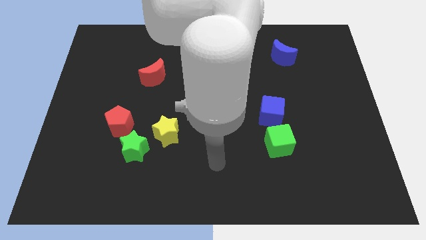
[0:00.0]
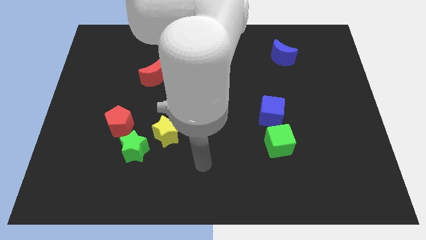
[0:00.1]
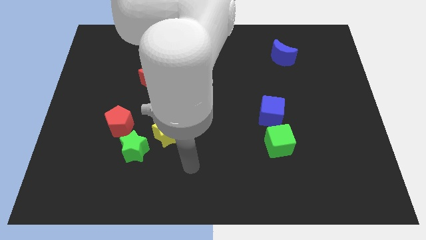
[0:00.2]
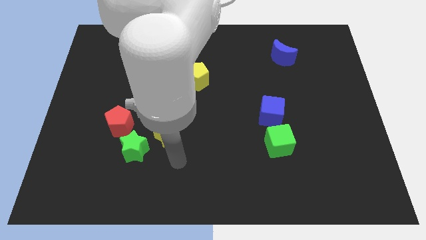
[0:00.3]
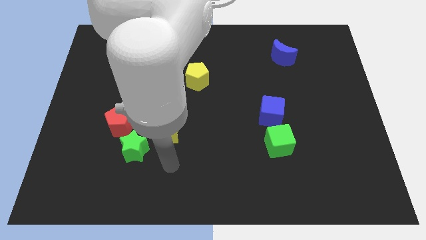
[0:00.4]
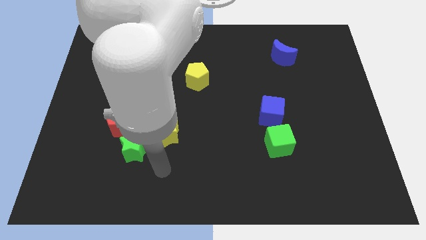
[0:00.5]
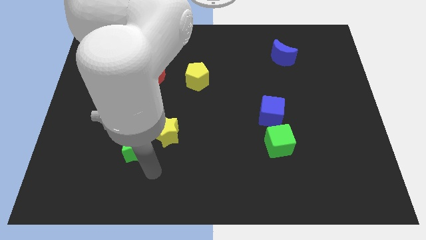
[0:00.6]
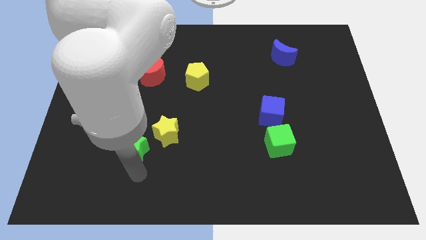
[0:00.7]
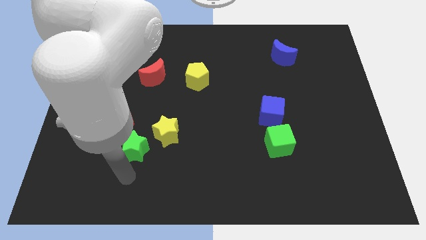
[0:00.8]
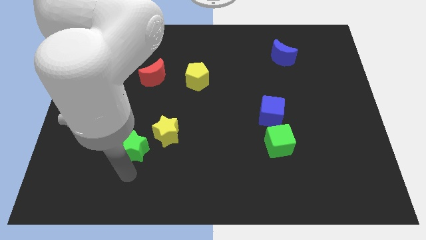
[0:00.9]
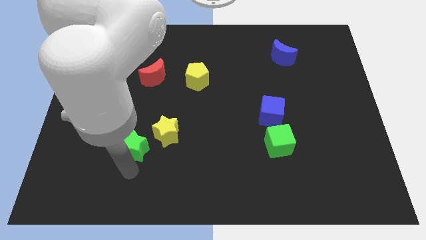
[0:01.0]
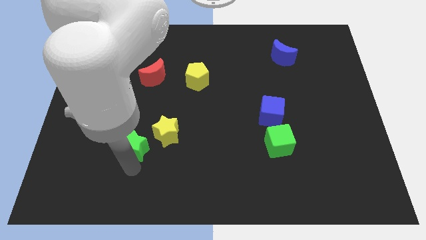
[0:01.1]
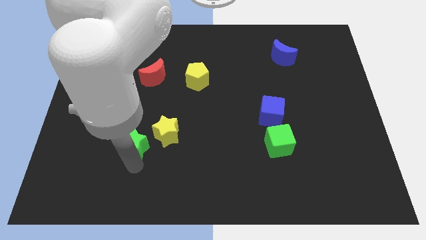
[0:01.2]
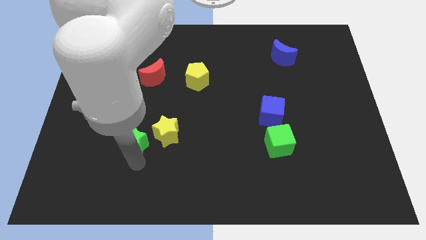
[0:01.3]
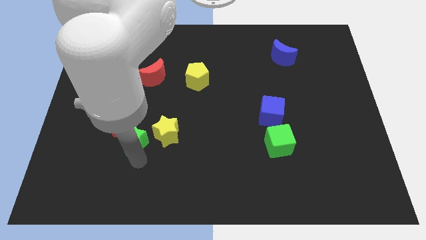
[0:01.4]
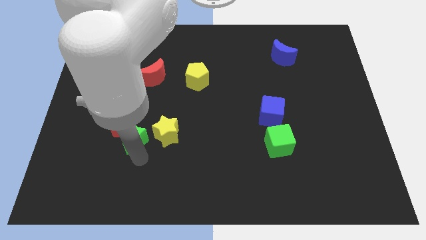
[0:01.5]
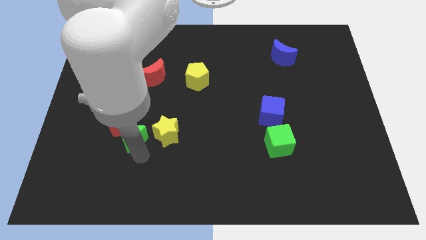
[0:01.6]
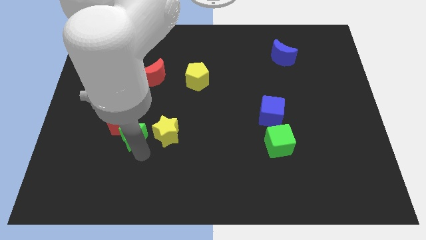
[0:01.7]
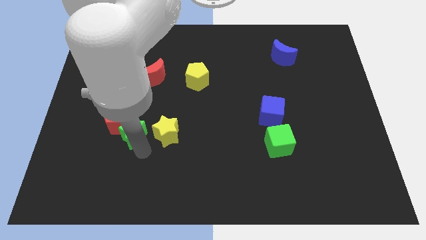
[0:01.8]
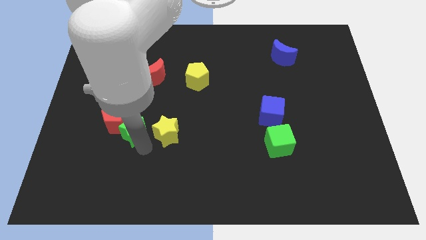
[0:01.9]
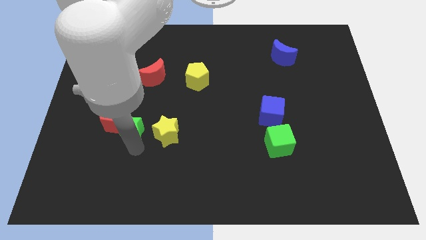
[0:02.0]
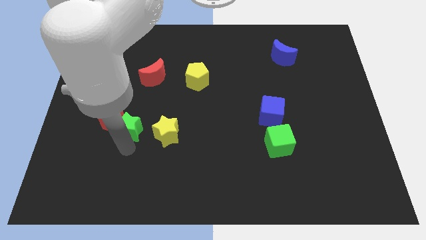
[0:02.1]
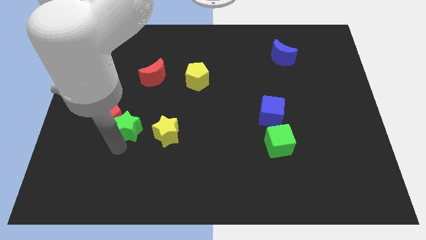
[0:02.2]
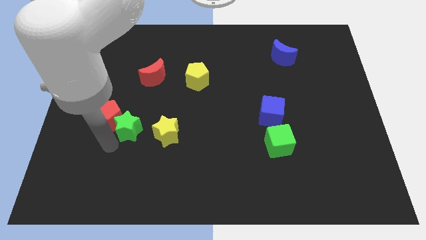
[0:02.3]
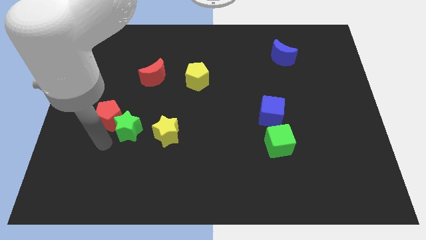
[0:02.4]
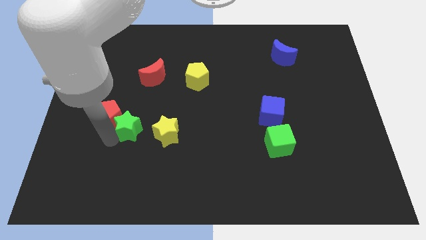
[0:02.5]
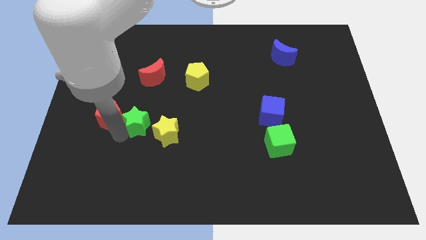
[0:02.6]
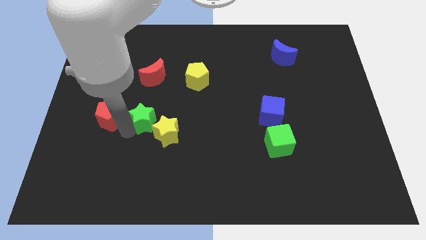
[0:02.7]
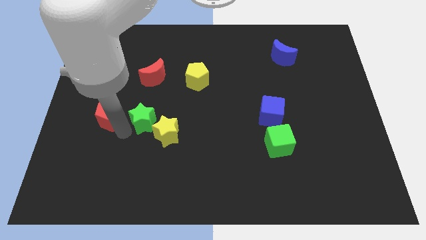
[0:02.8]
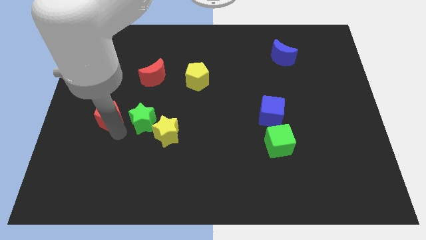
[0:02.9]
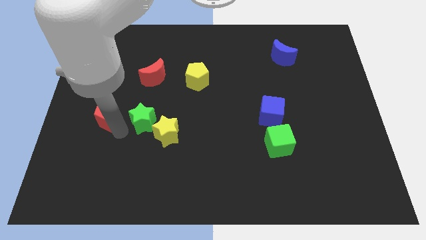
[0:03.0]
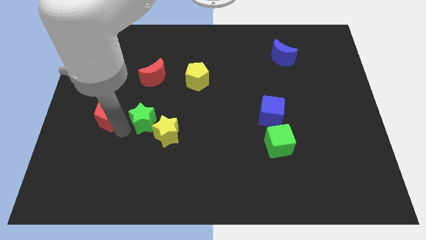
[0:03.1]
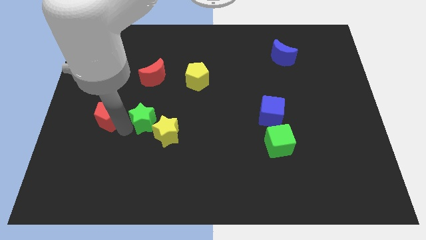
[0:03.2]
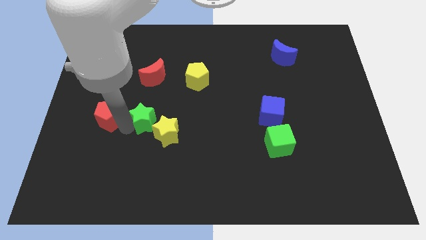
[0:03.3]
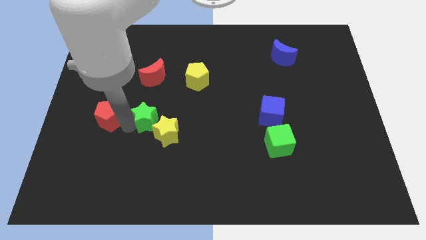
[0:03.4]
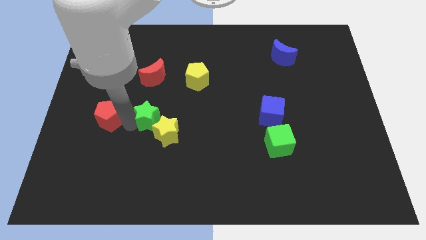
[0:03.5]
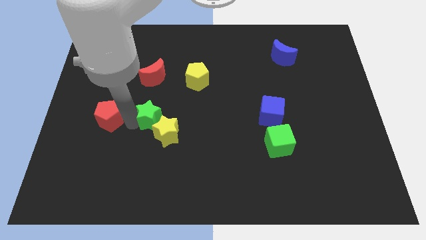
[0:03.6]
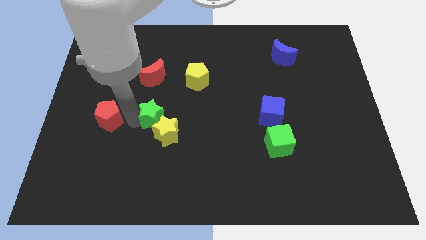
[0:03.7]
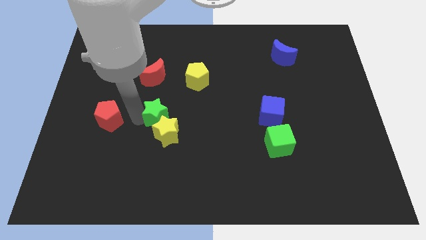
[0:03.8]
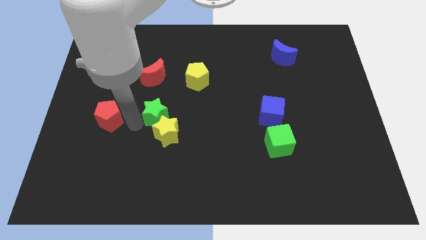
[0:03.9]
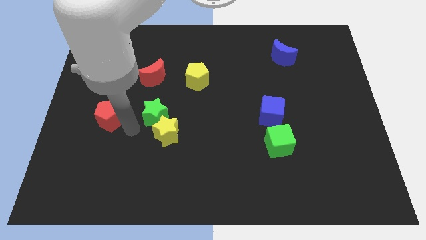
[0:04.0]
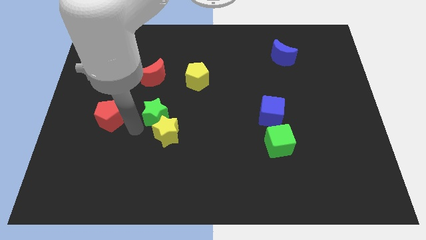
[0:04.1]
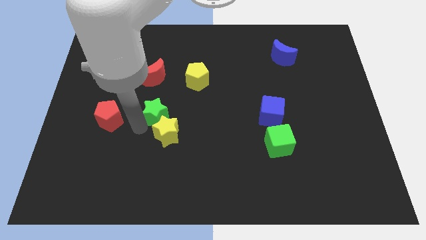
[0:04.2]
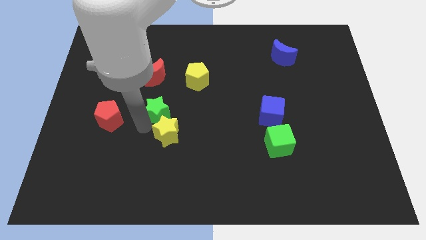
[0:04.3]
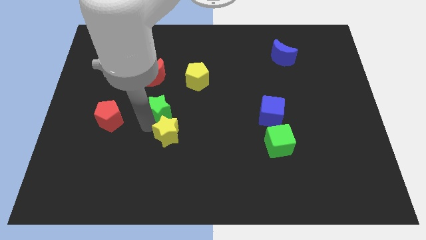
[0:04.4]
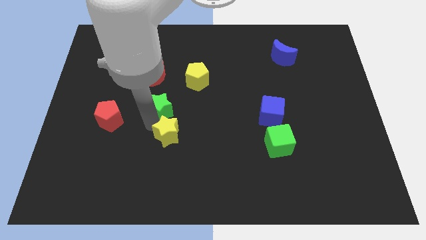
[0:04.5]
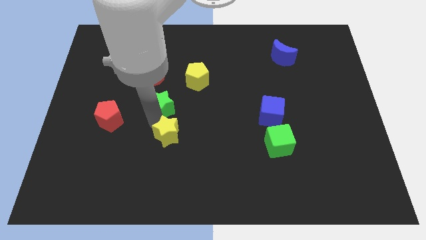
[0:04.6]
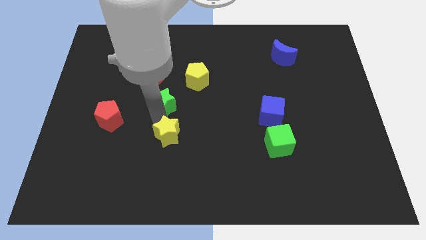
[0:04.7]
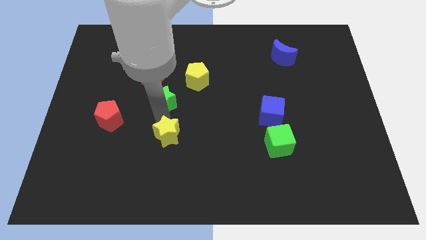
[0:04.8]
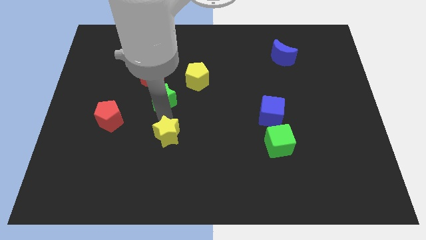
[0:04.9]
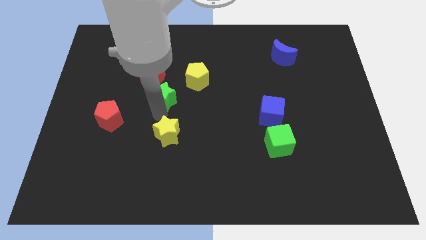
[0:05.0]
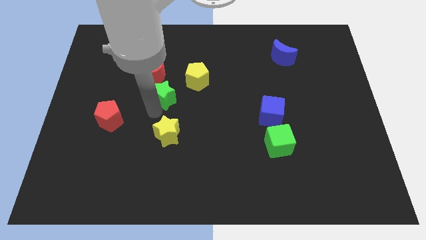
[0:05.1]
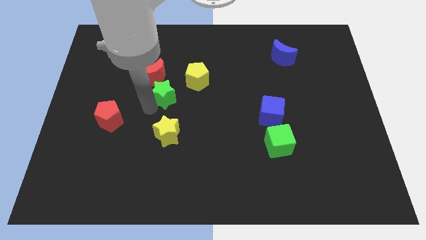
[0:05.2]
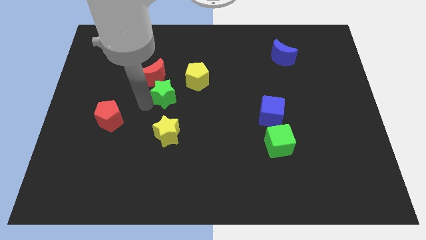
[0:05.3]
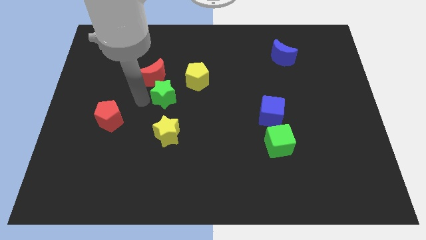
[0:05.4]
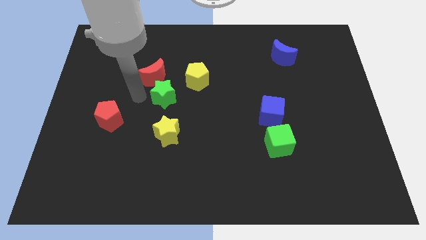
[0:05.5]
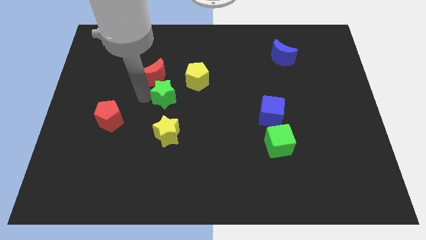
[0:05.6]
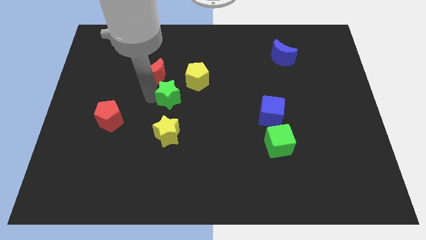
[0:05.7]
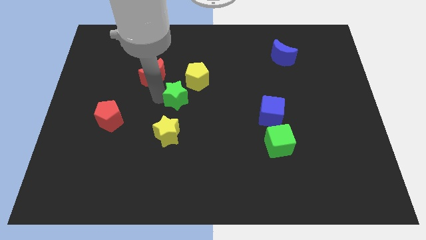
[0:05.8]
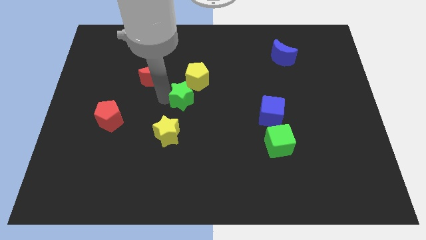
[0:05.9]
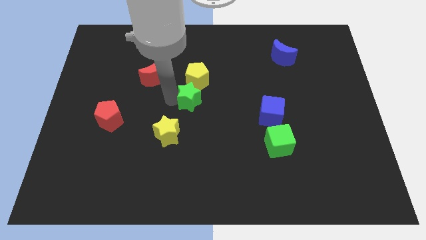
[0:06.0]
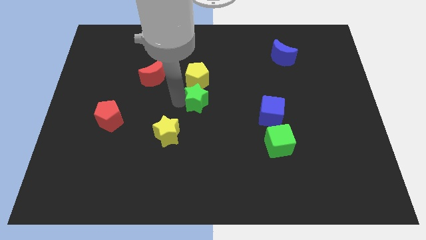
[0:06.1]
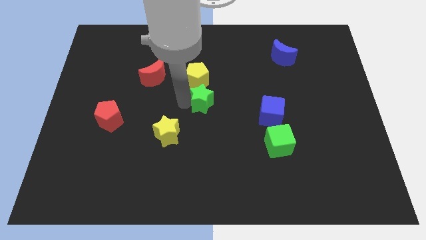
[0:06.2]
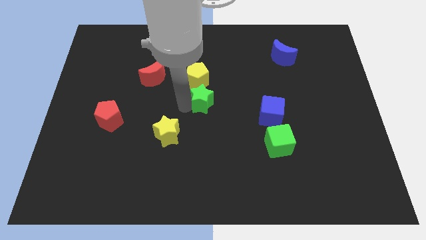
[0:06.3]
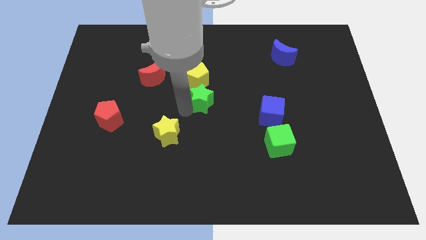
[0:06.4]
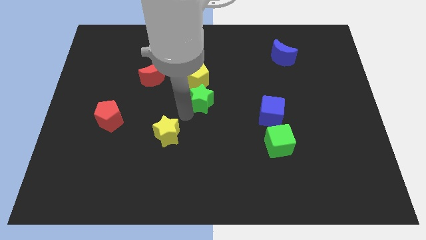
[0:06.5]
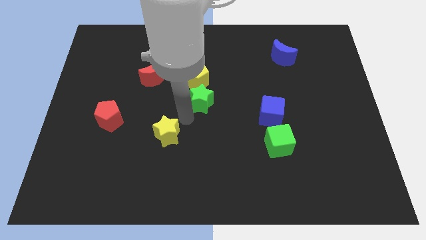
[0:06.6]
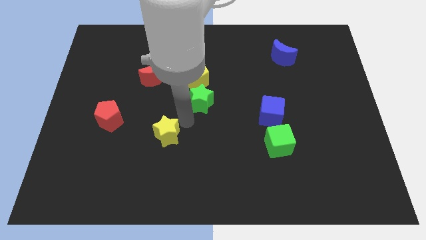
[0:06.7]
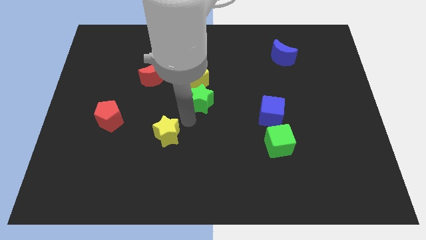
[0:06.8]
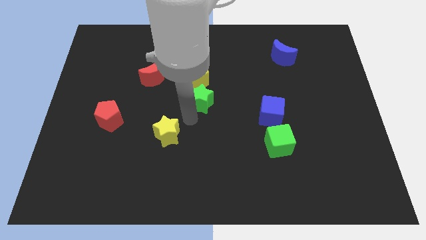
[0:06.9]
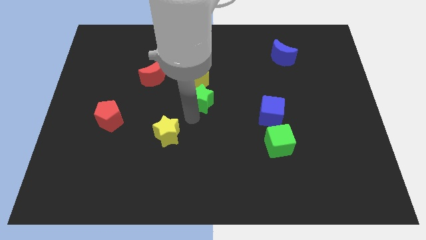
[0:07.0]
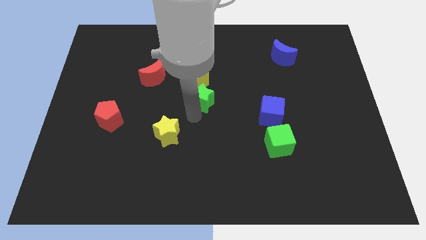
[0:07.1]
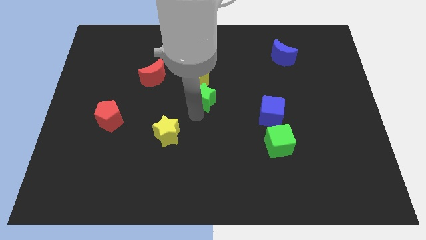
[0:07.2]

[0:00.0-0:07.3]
slide the green star up and right

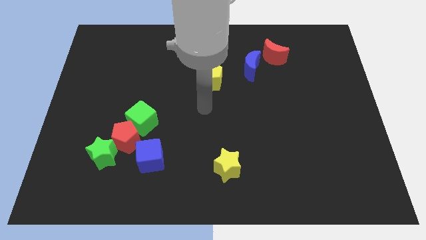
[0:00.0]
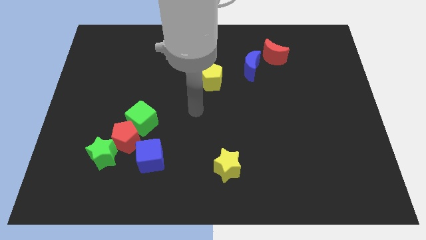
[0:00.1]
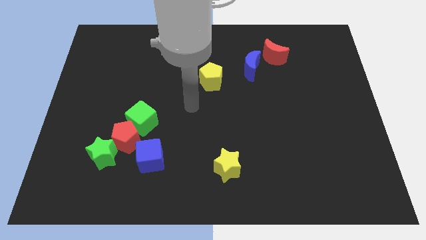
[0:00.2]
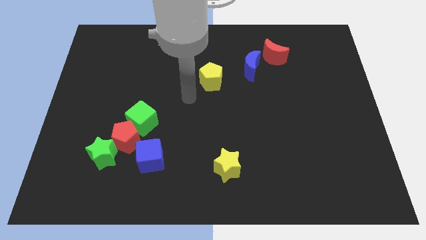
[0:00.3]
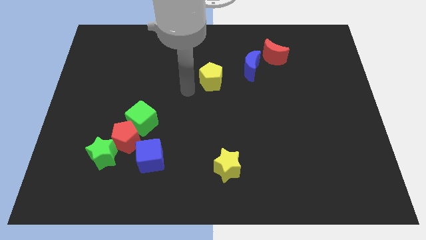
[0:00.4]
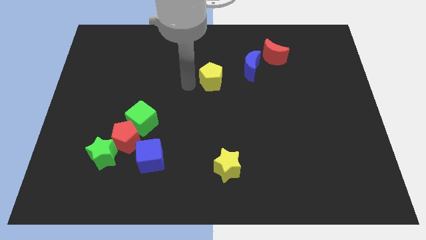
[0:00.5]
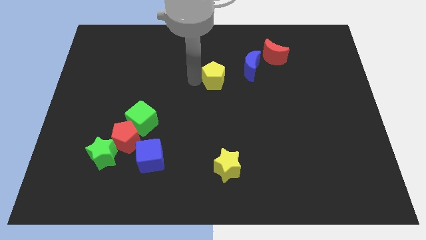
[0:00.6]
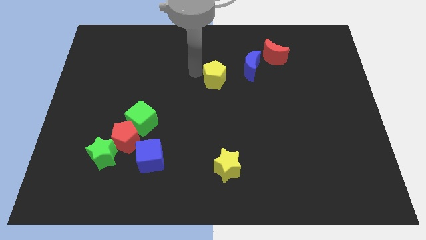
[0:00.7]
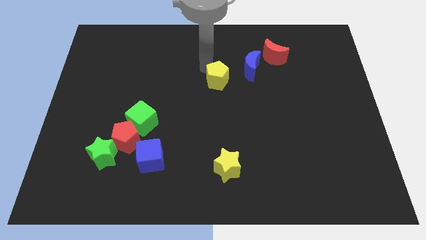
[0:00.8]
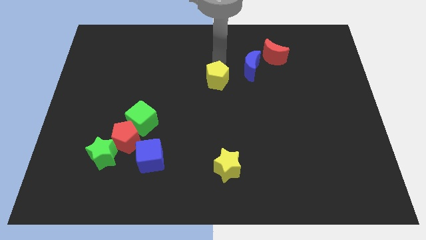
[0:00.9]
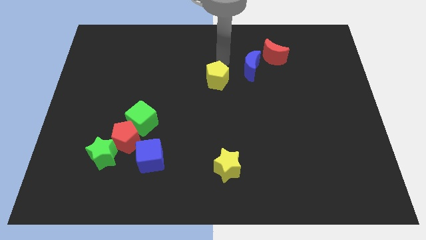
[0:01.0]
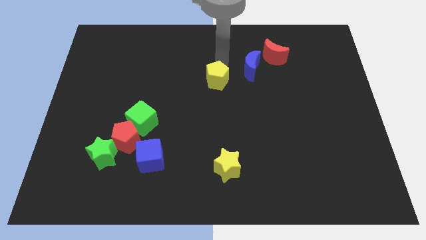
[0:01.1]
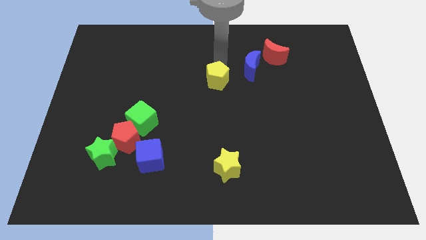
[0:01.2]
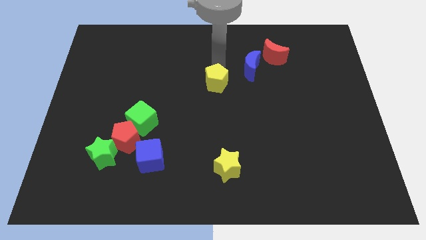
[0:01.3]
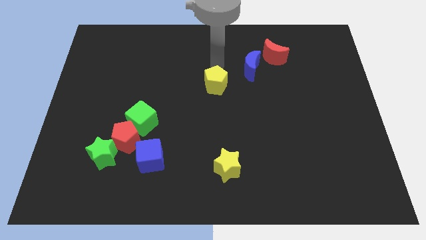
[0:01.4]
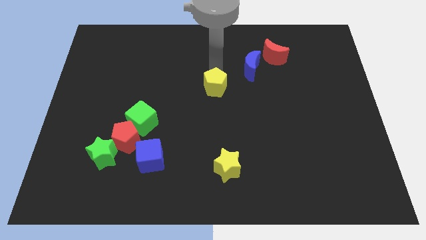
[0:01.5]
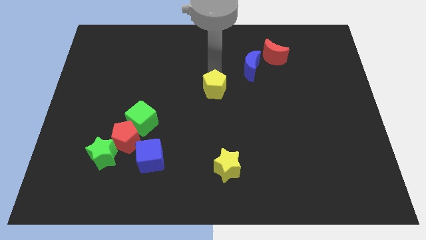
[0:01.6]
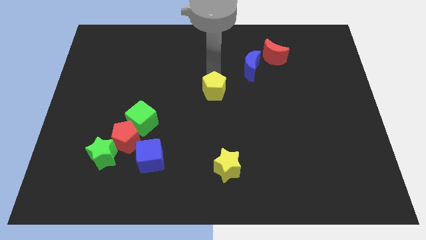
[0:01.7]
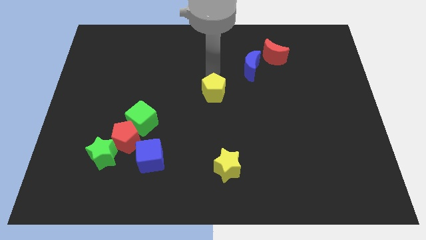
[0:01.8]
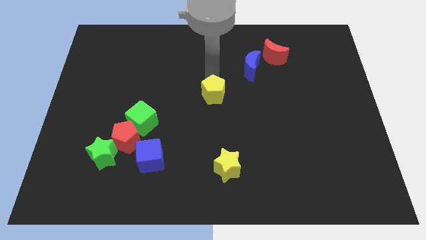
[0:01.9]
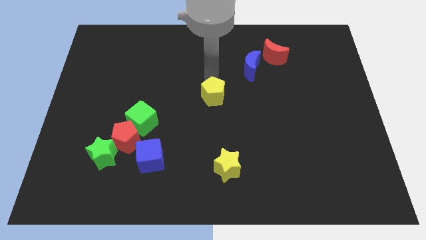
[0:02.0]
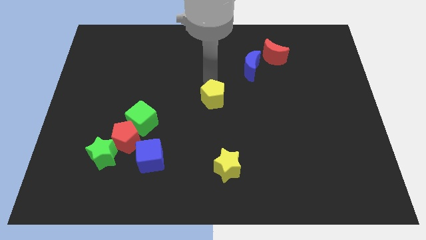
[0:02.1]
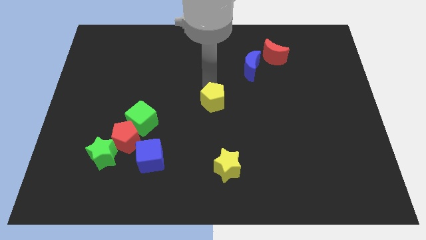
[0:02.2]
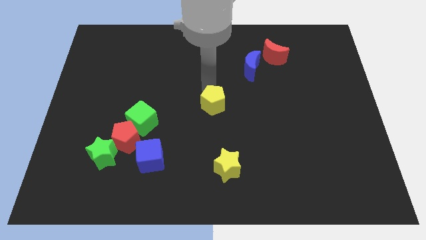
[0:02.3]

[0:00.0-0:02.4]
push the yellow pentagon downwards a little
